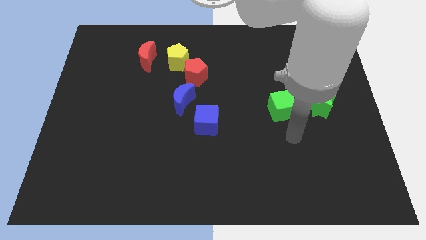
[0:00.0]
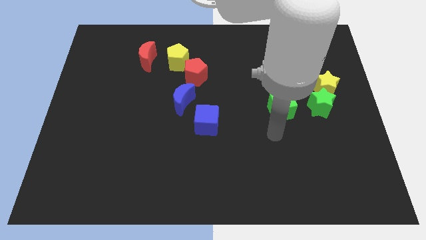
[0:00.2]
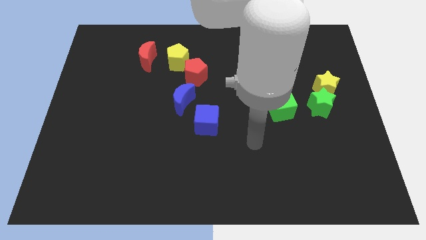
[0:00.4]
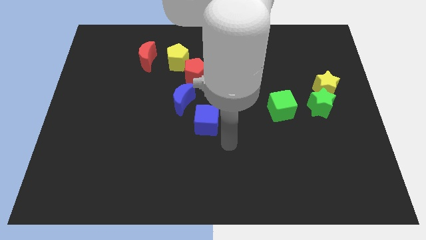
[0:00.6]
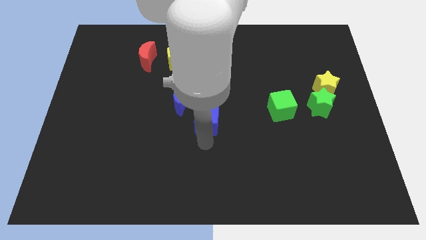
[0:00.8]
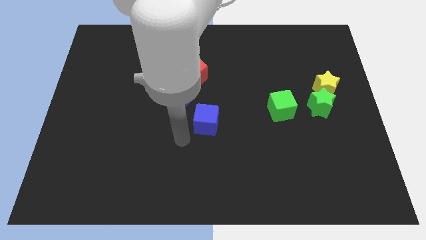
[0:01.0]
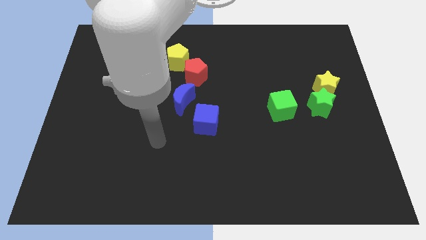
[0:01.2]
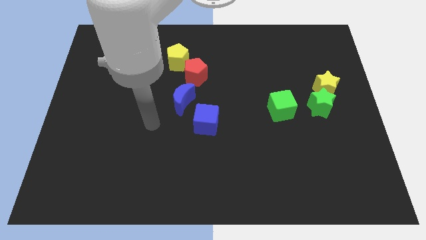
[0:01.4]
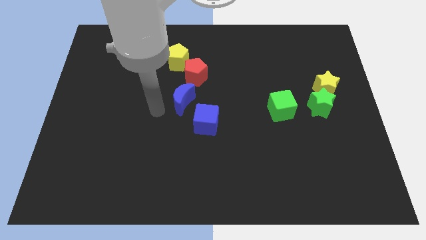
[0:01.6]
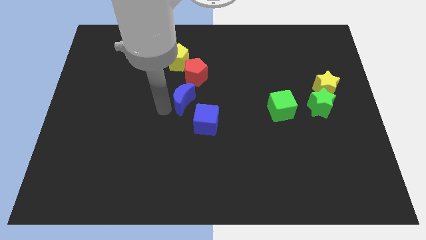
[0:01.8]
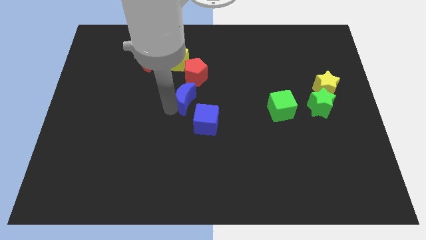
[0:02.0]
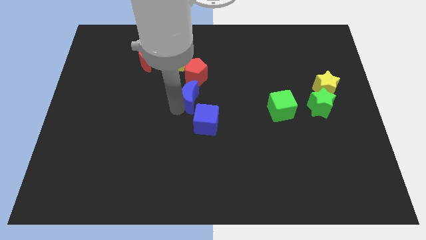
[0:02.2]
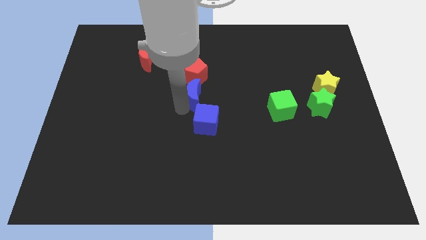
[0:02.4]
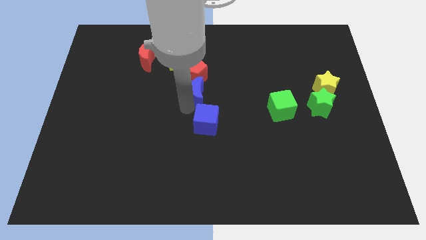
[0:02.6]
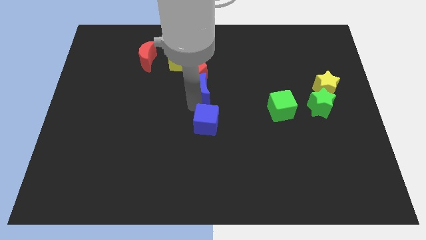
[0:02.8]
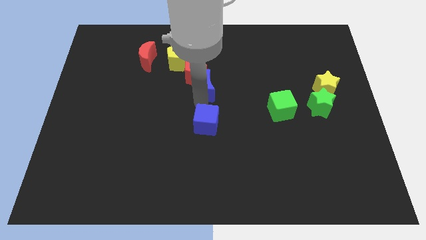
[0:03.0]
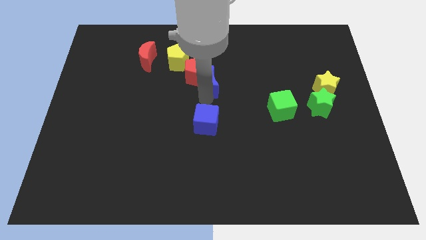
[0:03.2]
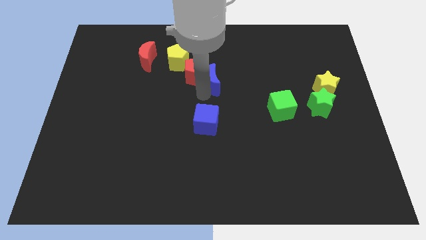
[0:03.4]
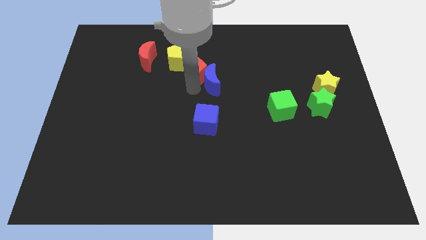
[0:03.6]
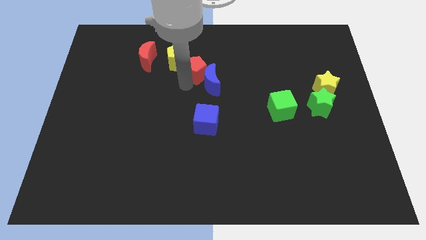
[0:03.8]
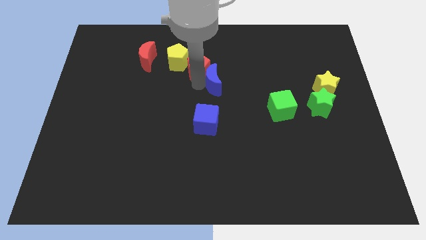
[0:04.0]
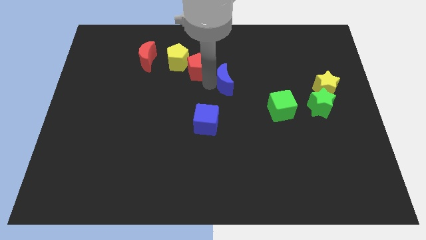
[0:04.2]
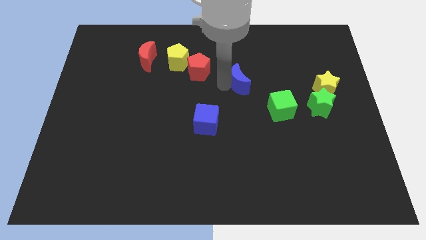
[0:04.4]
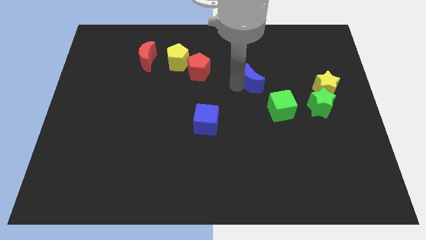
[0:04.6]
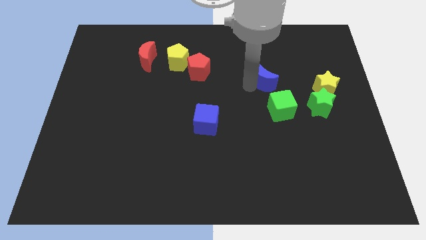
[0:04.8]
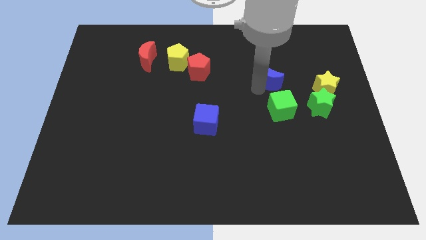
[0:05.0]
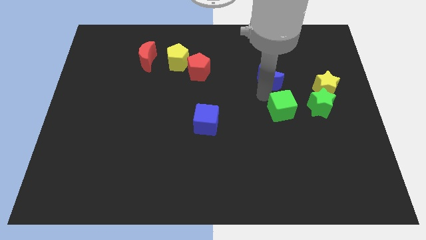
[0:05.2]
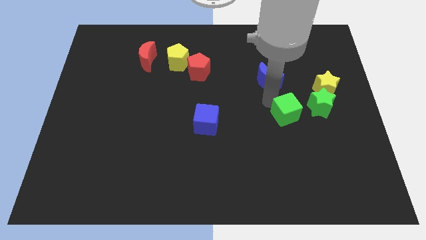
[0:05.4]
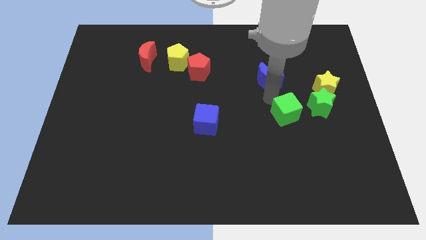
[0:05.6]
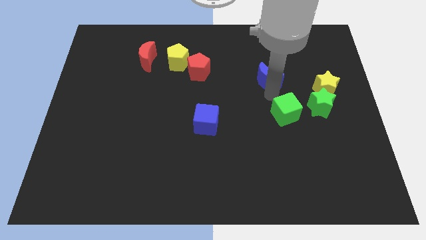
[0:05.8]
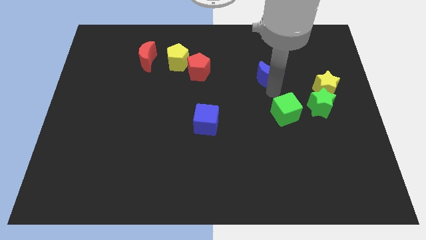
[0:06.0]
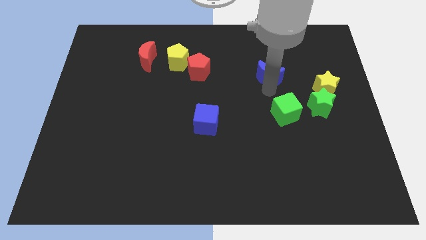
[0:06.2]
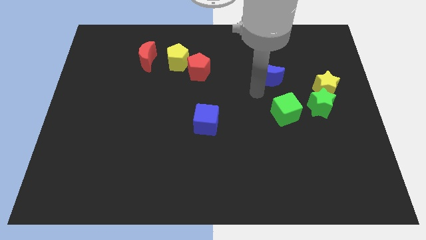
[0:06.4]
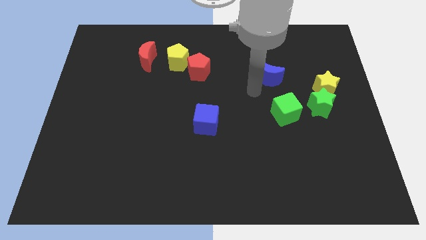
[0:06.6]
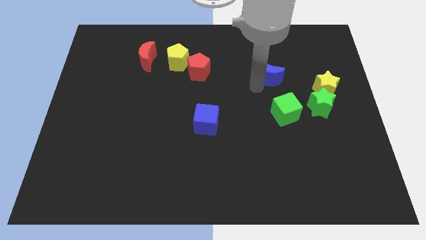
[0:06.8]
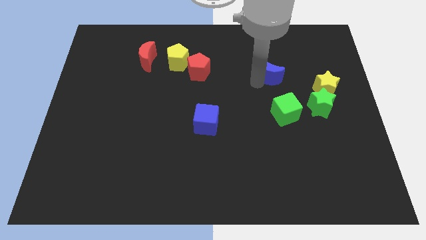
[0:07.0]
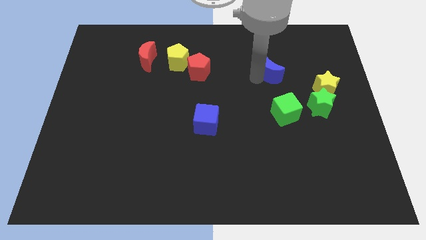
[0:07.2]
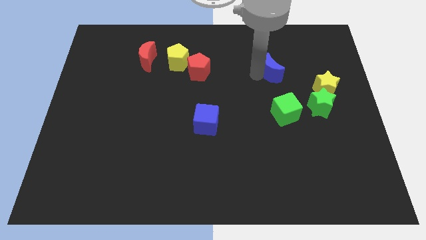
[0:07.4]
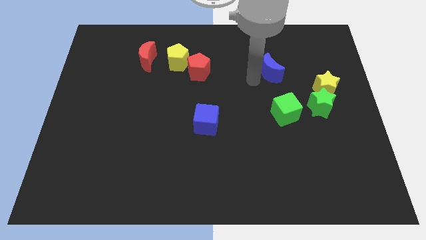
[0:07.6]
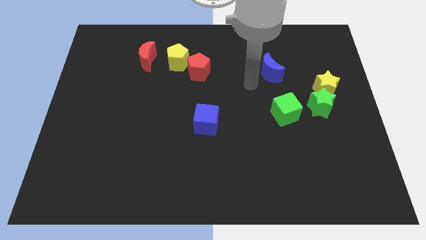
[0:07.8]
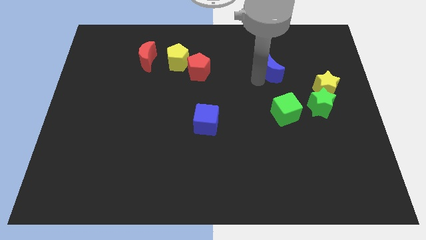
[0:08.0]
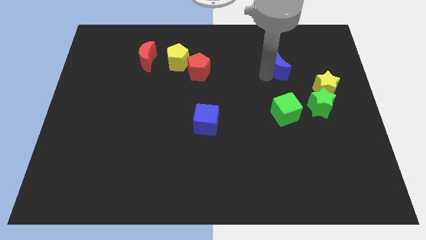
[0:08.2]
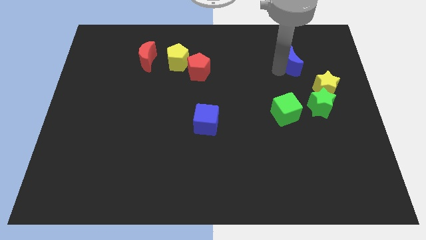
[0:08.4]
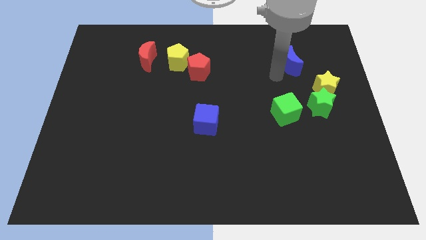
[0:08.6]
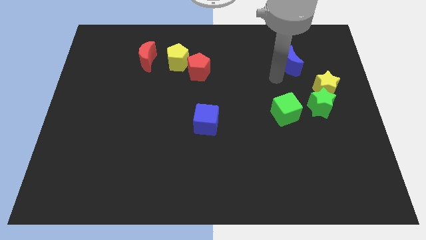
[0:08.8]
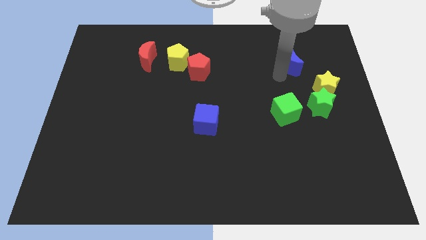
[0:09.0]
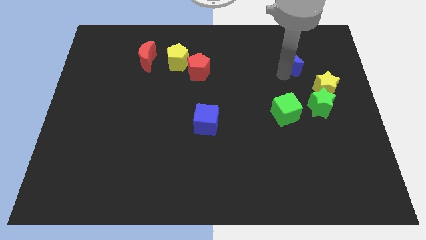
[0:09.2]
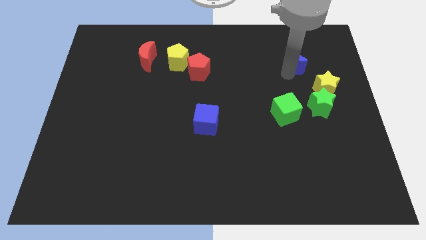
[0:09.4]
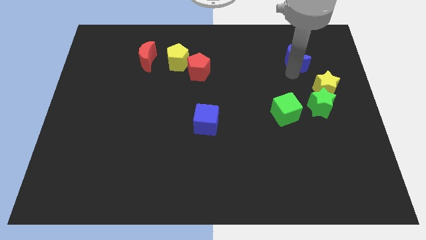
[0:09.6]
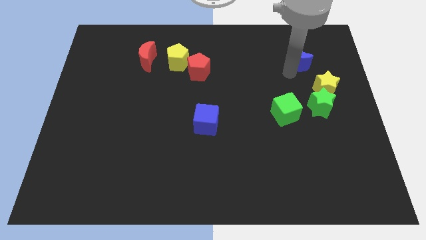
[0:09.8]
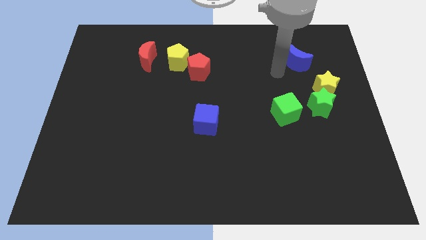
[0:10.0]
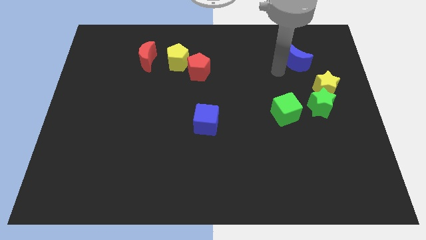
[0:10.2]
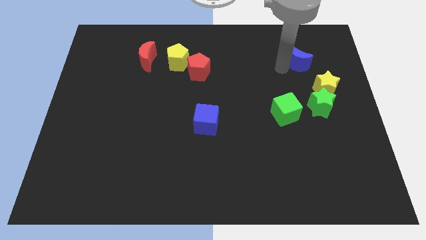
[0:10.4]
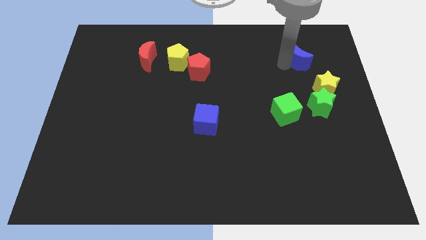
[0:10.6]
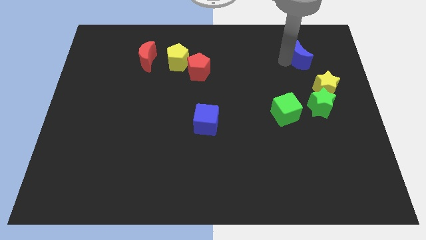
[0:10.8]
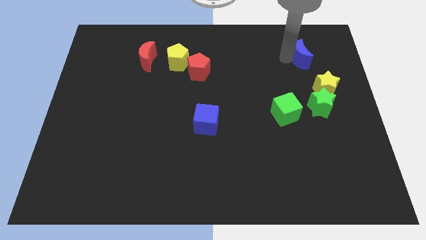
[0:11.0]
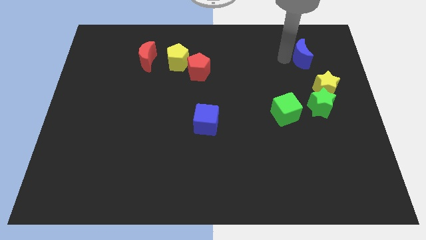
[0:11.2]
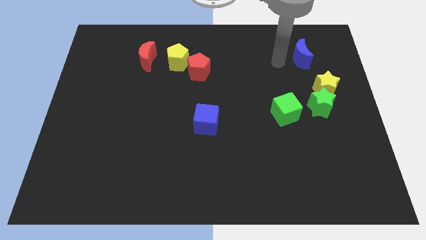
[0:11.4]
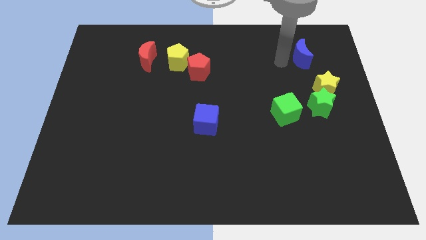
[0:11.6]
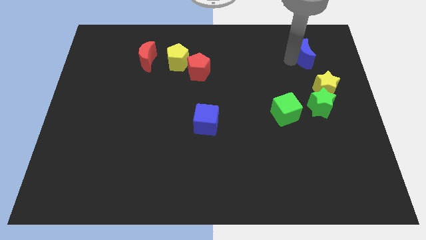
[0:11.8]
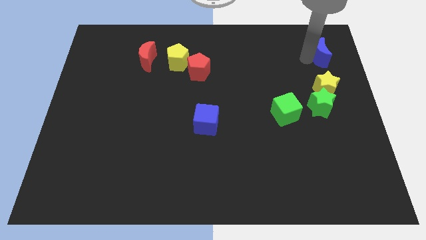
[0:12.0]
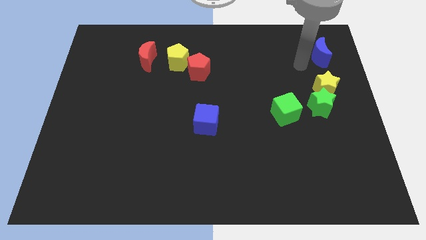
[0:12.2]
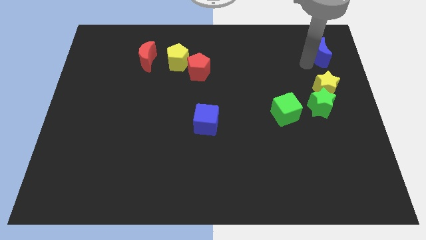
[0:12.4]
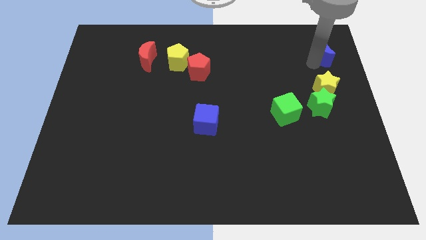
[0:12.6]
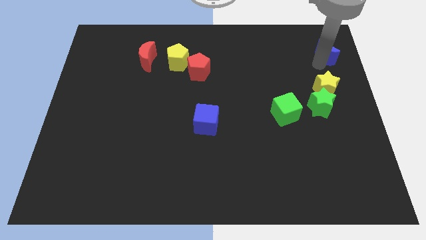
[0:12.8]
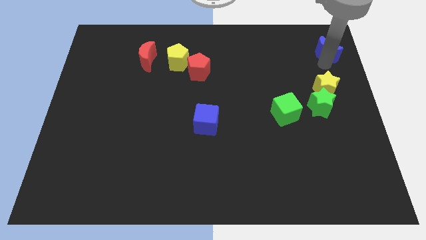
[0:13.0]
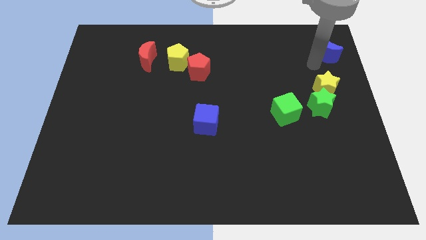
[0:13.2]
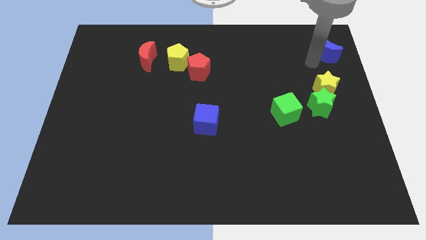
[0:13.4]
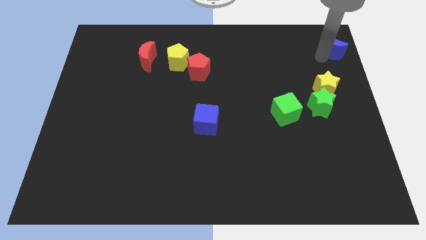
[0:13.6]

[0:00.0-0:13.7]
put the blue moon to the top right corner
